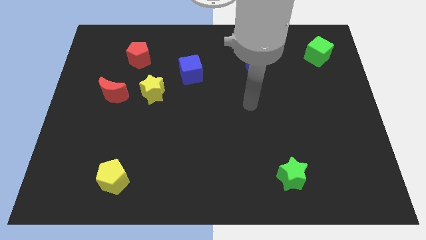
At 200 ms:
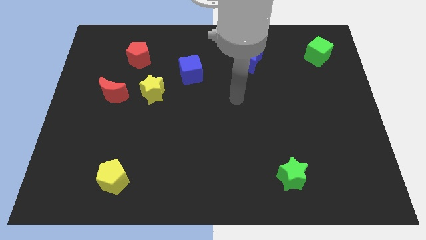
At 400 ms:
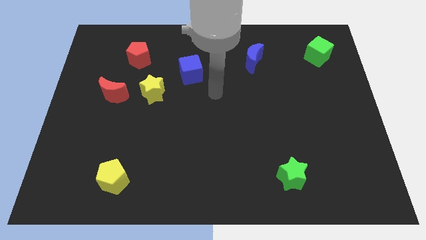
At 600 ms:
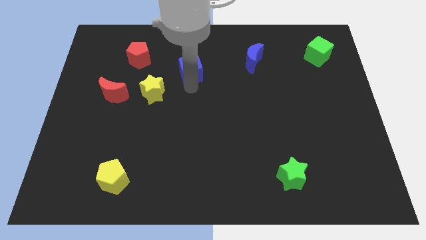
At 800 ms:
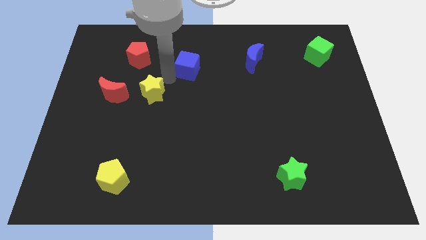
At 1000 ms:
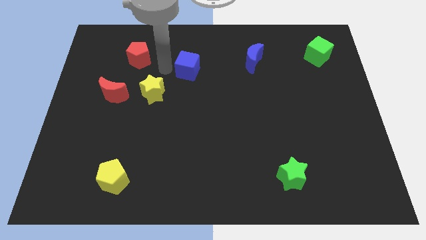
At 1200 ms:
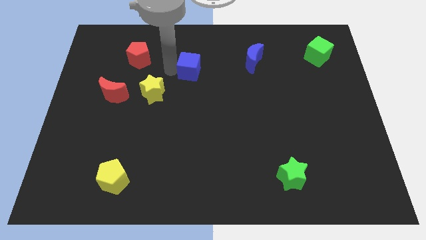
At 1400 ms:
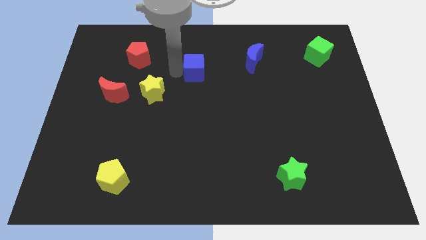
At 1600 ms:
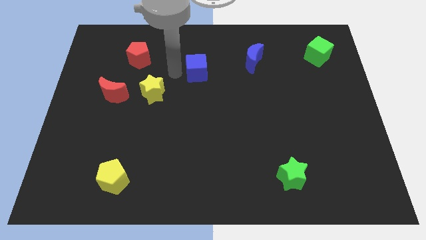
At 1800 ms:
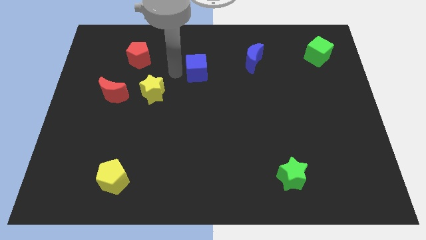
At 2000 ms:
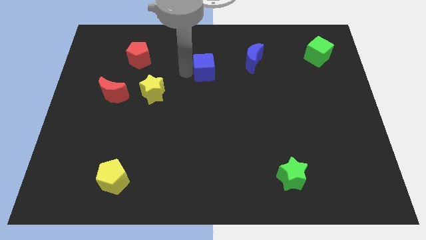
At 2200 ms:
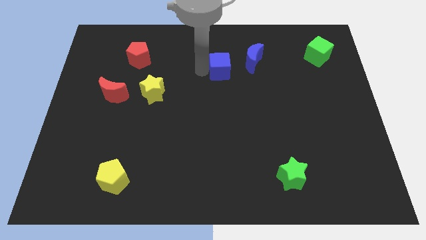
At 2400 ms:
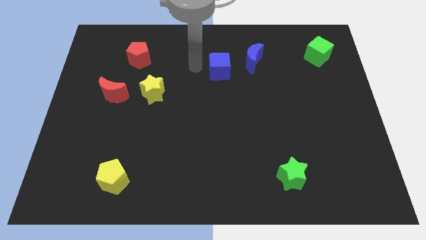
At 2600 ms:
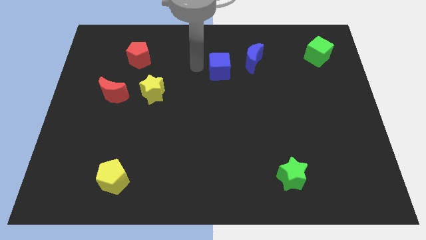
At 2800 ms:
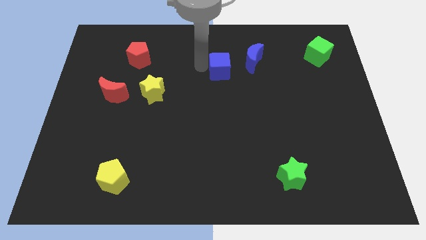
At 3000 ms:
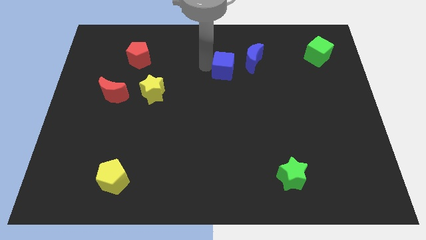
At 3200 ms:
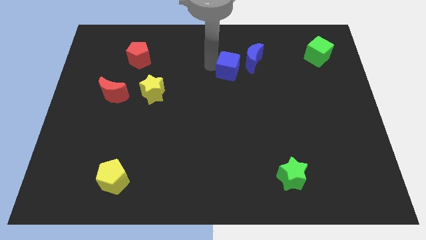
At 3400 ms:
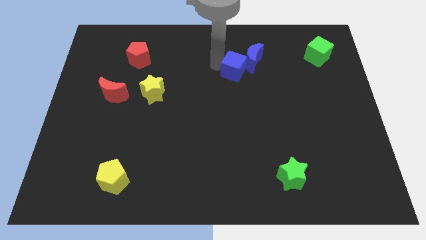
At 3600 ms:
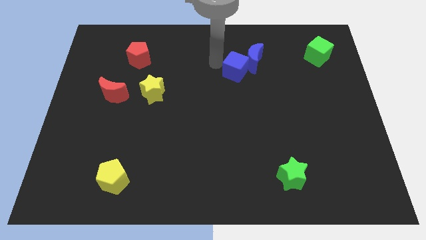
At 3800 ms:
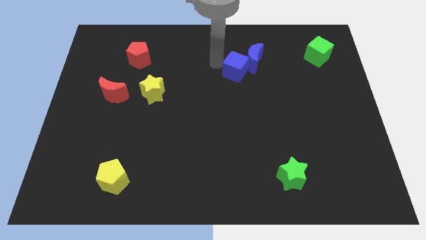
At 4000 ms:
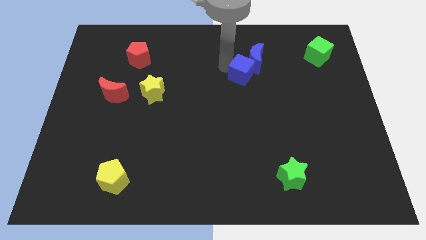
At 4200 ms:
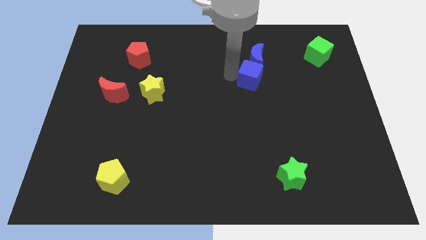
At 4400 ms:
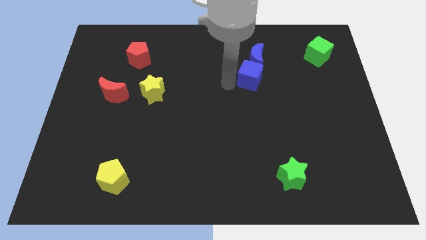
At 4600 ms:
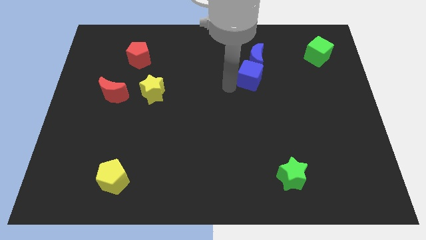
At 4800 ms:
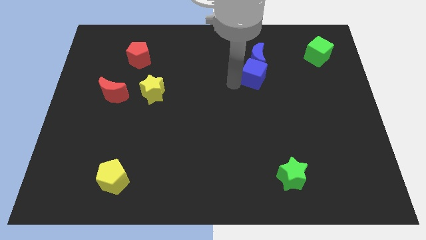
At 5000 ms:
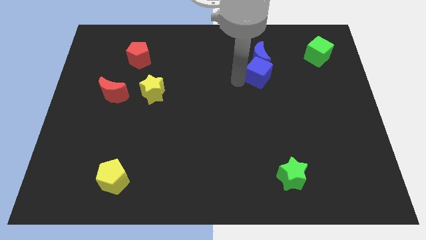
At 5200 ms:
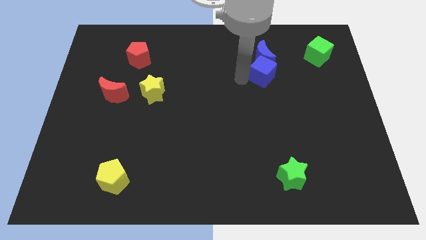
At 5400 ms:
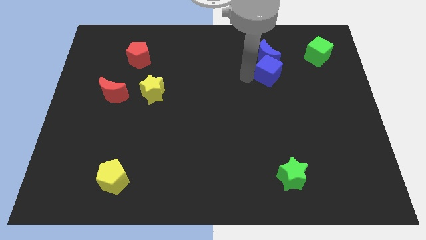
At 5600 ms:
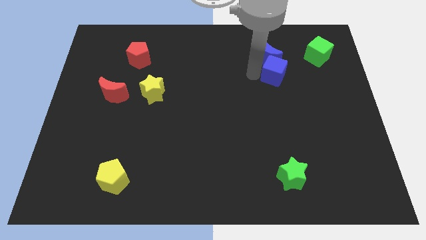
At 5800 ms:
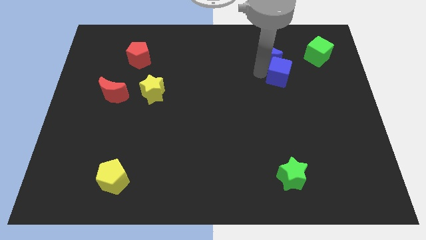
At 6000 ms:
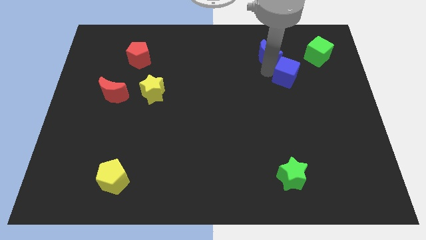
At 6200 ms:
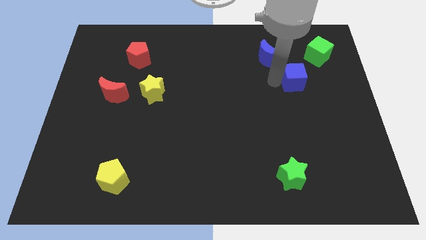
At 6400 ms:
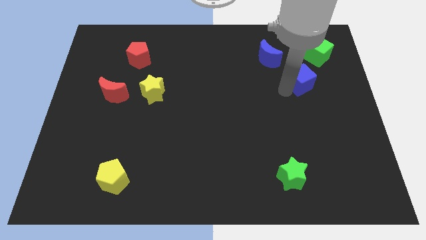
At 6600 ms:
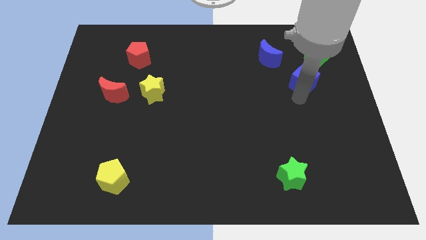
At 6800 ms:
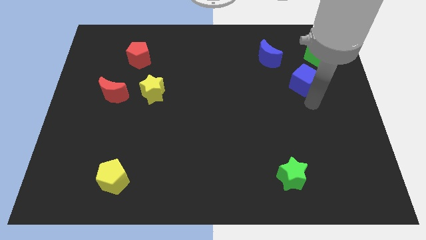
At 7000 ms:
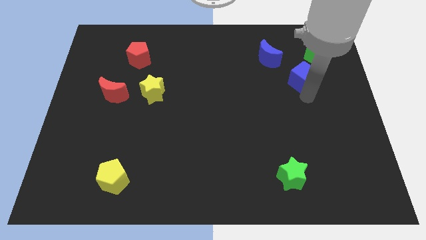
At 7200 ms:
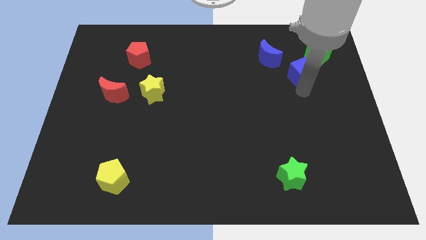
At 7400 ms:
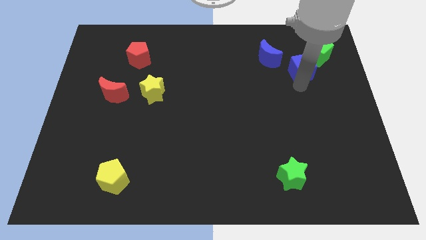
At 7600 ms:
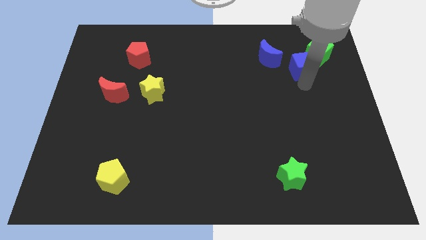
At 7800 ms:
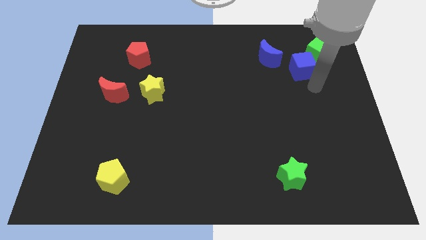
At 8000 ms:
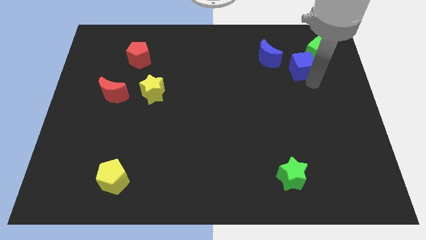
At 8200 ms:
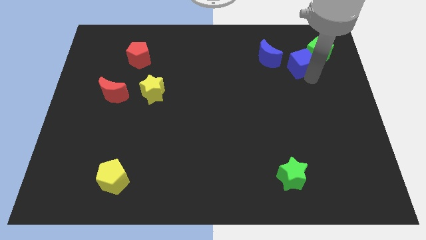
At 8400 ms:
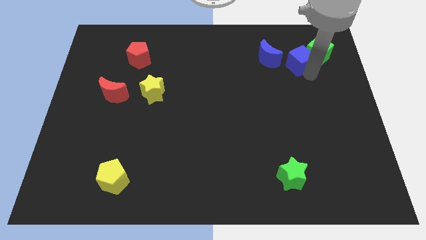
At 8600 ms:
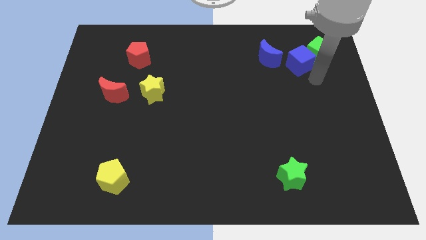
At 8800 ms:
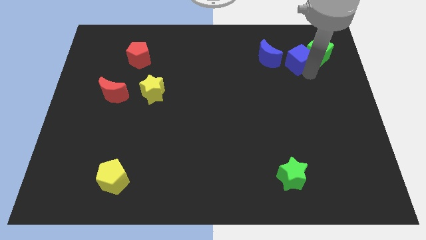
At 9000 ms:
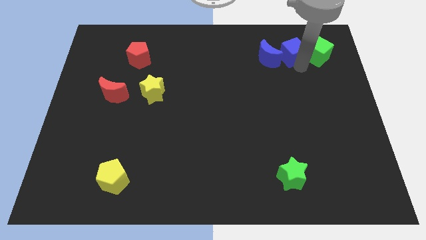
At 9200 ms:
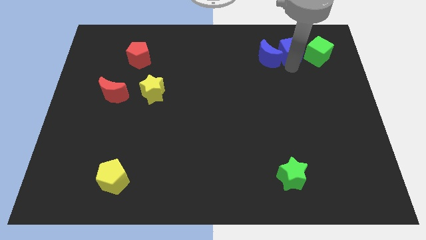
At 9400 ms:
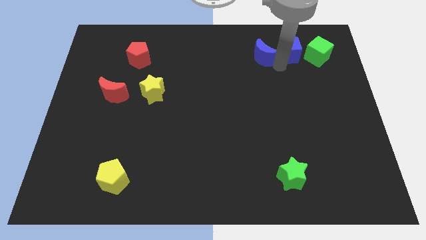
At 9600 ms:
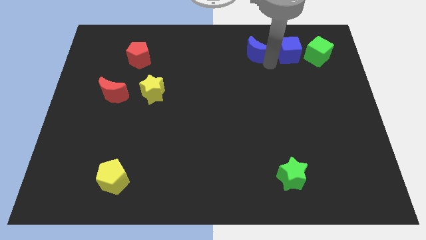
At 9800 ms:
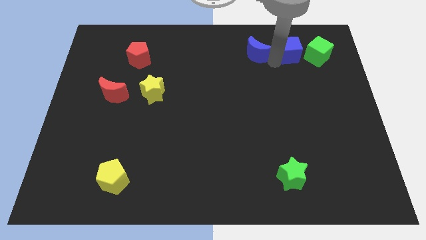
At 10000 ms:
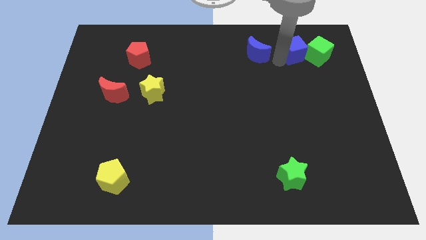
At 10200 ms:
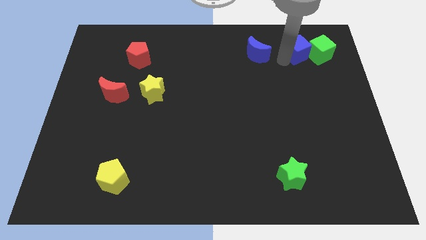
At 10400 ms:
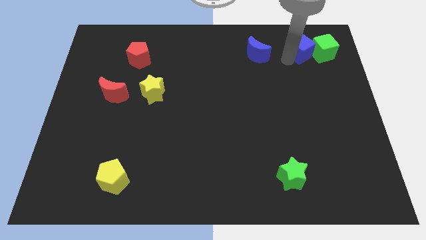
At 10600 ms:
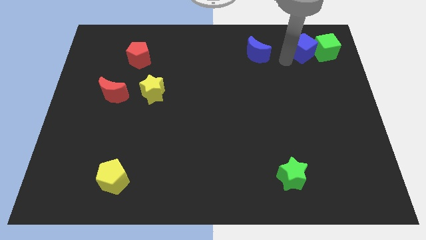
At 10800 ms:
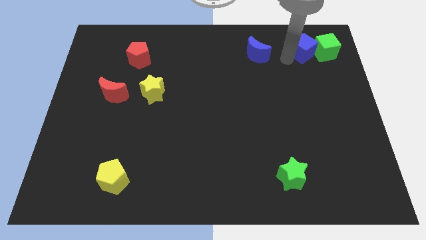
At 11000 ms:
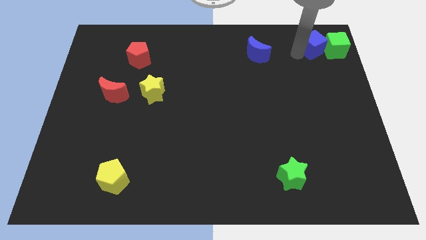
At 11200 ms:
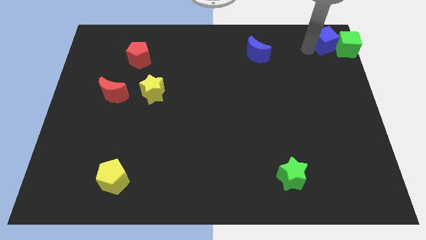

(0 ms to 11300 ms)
slide the blue cube to the top right
